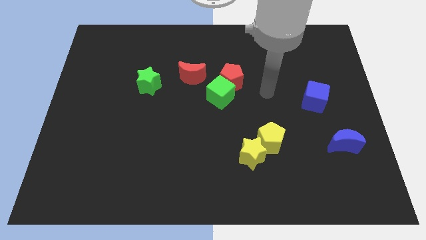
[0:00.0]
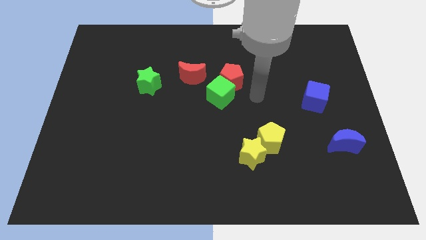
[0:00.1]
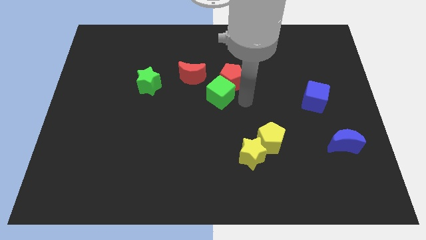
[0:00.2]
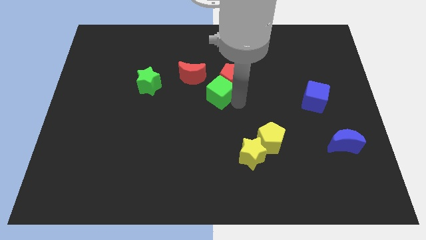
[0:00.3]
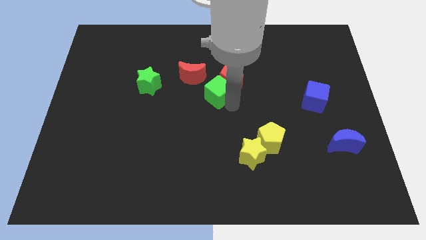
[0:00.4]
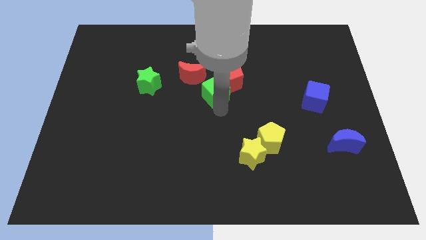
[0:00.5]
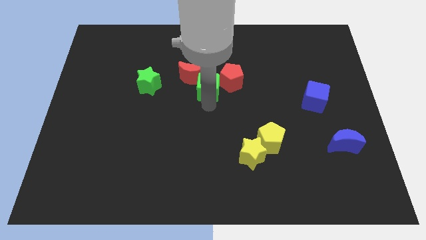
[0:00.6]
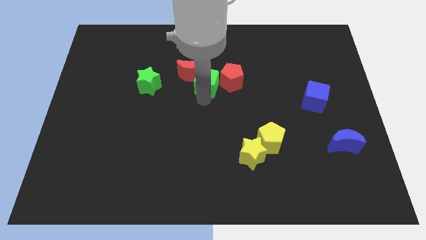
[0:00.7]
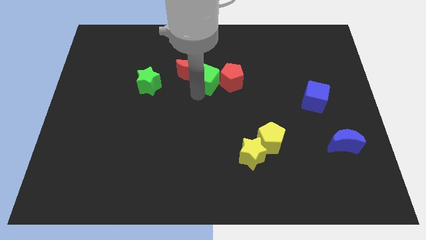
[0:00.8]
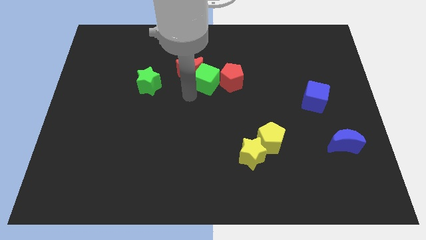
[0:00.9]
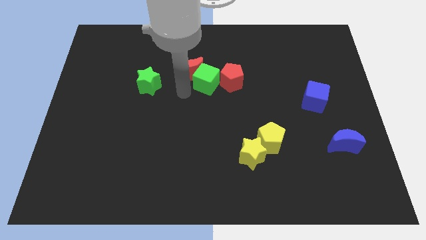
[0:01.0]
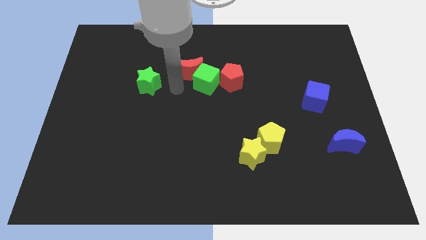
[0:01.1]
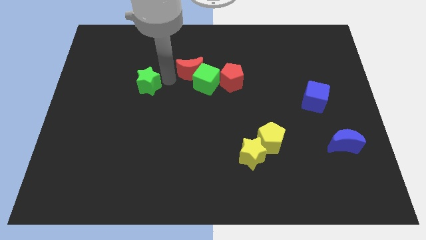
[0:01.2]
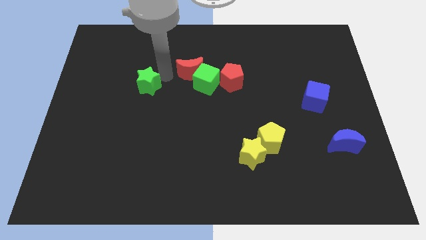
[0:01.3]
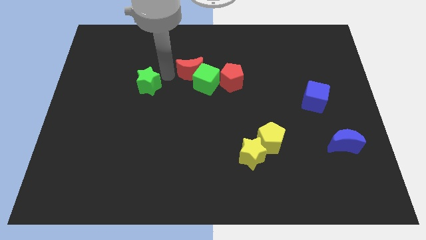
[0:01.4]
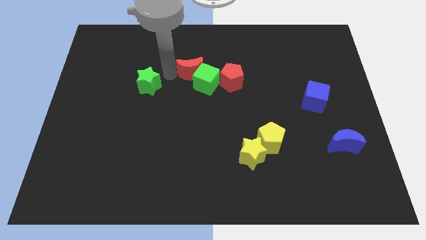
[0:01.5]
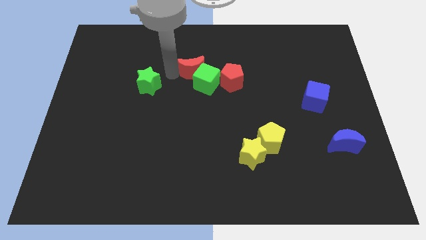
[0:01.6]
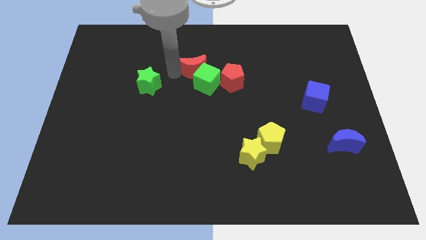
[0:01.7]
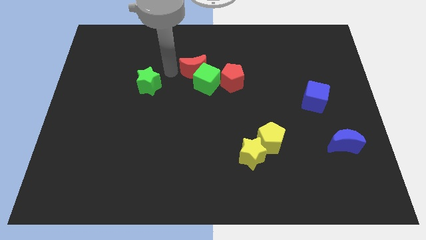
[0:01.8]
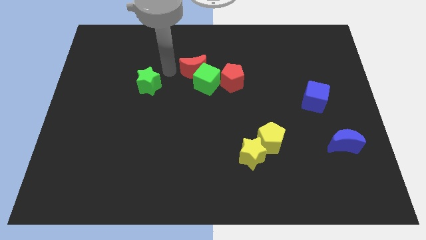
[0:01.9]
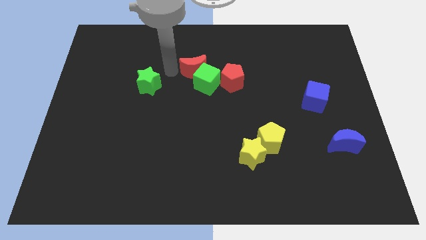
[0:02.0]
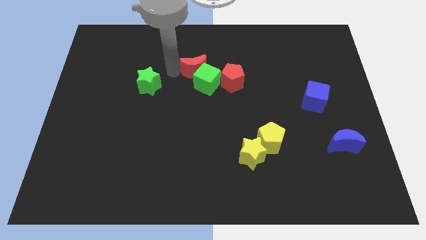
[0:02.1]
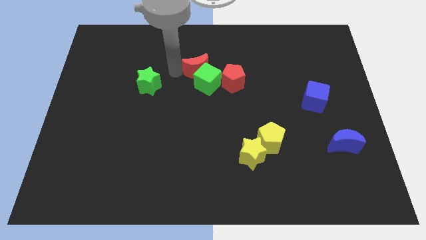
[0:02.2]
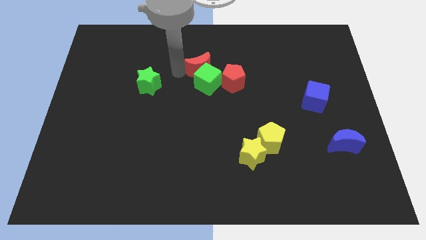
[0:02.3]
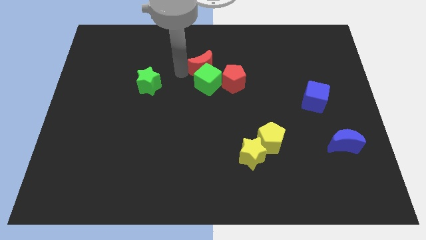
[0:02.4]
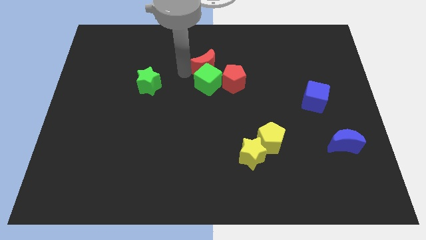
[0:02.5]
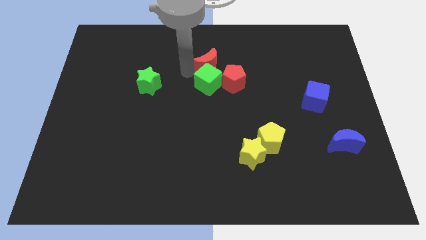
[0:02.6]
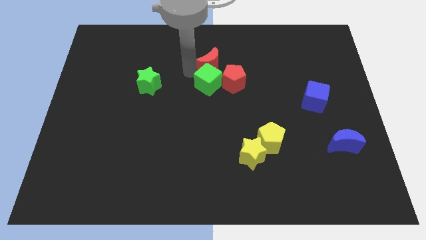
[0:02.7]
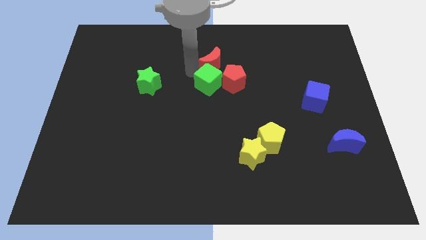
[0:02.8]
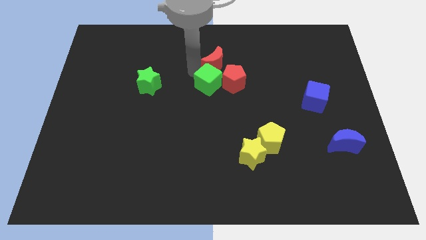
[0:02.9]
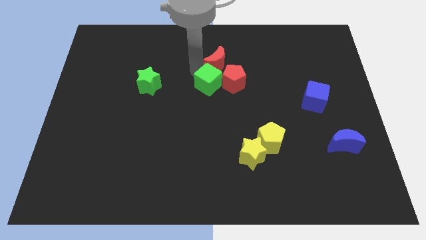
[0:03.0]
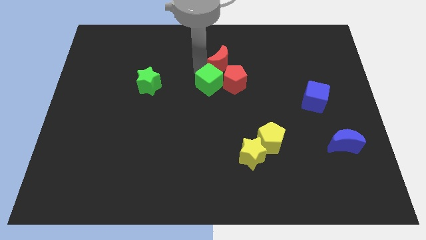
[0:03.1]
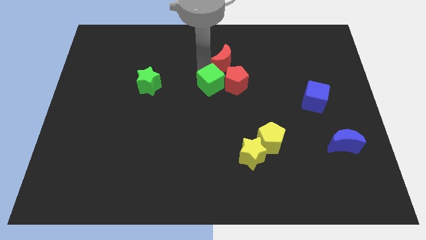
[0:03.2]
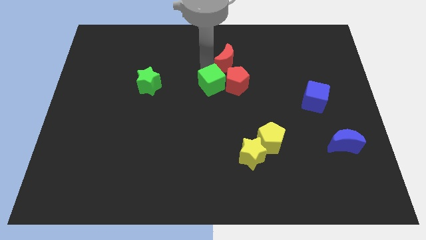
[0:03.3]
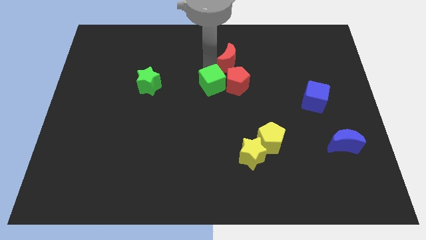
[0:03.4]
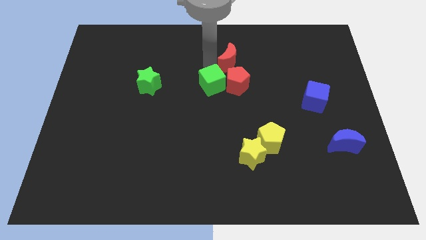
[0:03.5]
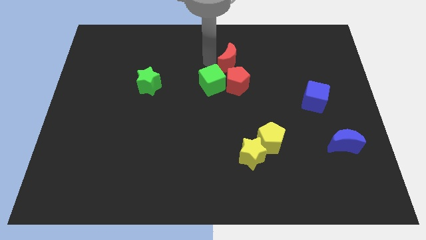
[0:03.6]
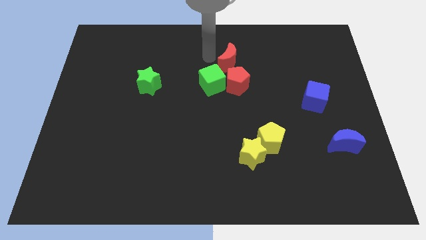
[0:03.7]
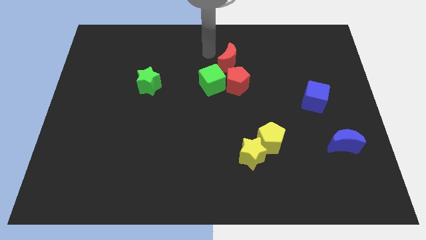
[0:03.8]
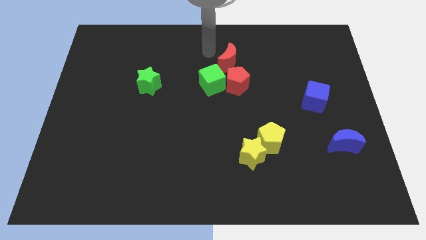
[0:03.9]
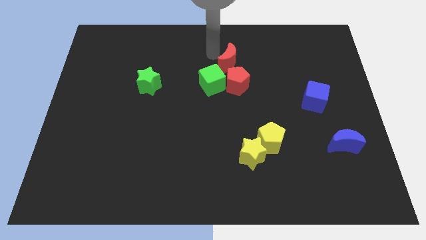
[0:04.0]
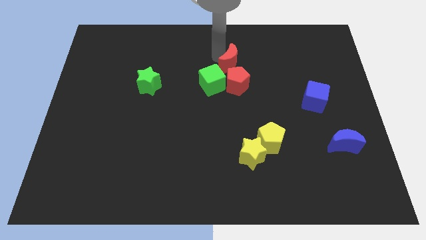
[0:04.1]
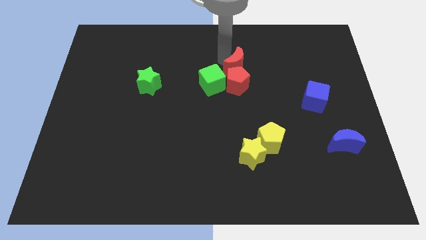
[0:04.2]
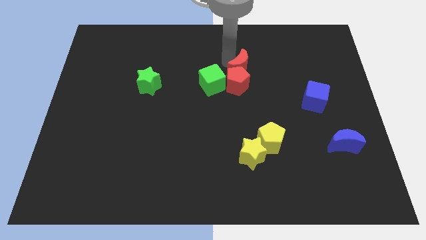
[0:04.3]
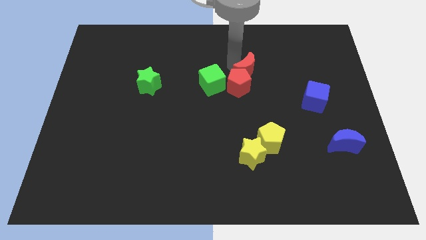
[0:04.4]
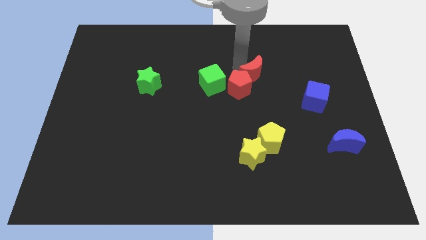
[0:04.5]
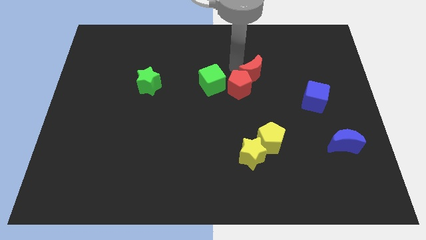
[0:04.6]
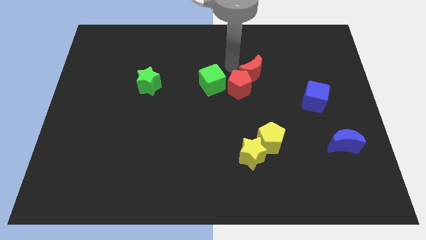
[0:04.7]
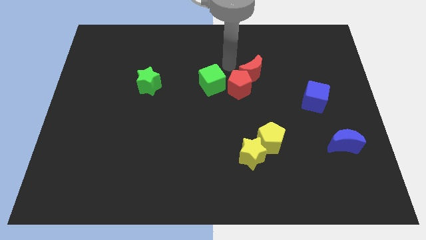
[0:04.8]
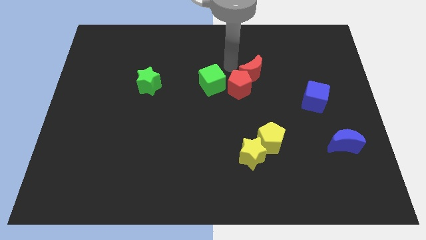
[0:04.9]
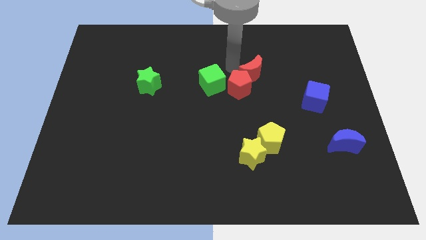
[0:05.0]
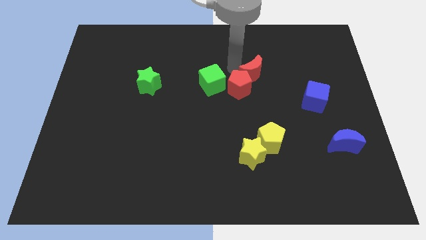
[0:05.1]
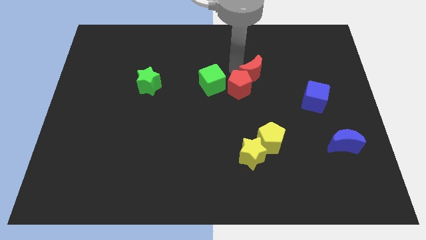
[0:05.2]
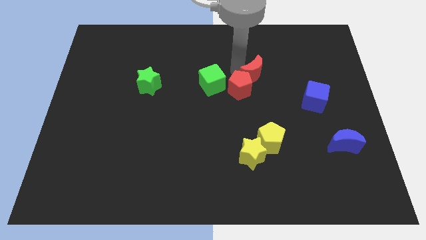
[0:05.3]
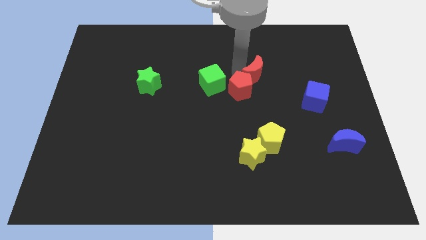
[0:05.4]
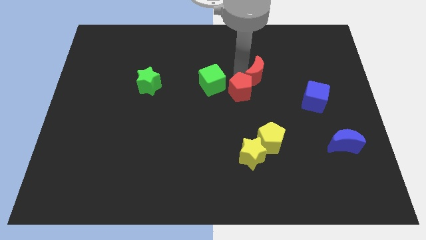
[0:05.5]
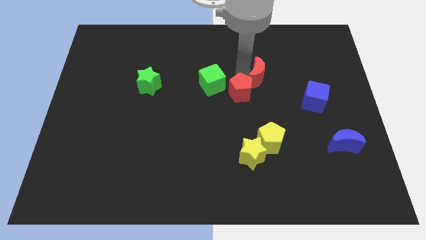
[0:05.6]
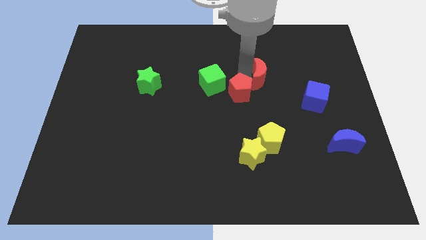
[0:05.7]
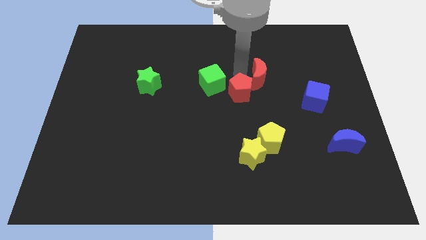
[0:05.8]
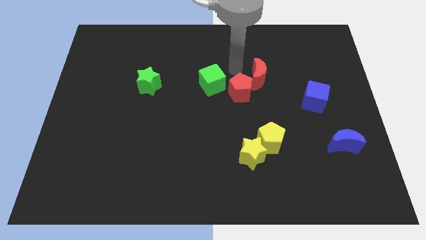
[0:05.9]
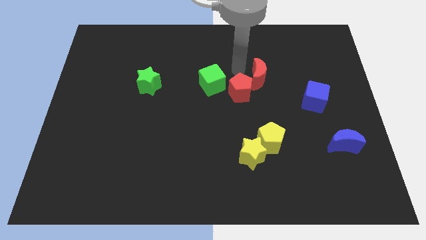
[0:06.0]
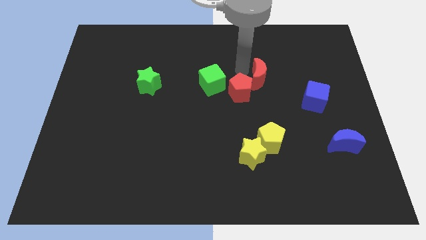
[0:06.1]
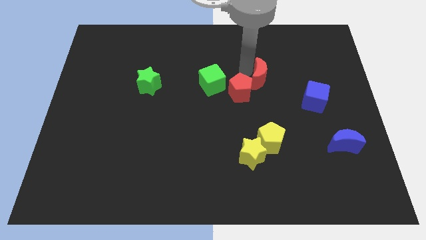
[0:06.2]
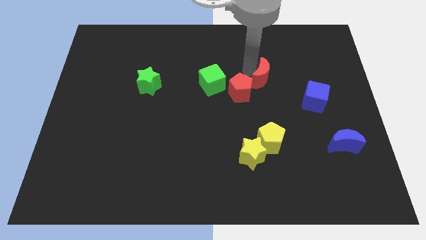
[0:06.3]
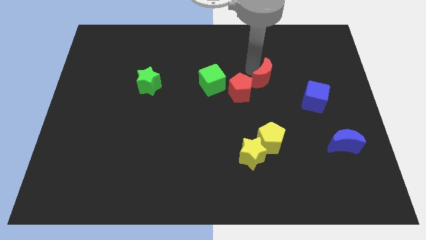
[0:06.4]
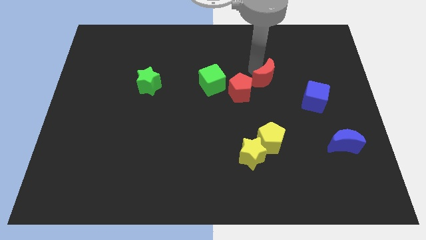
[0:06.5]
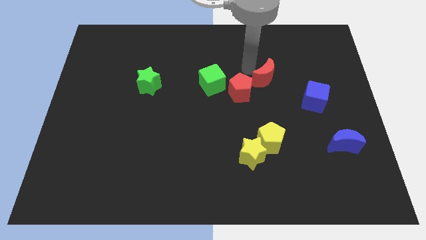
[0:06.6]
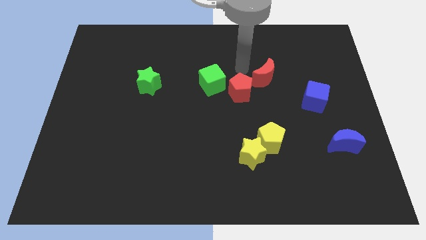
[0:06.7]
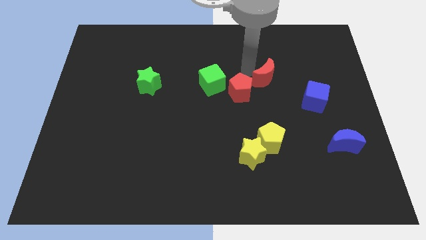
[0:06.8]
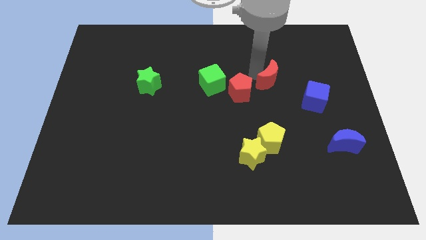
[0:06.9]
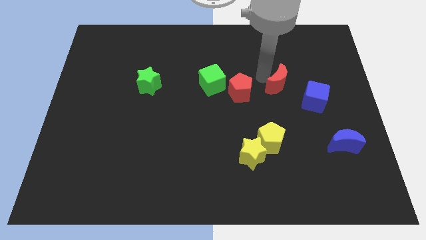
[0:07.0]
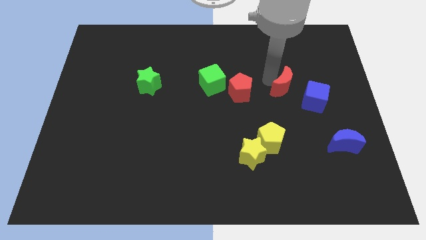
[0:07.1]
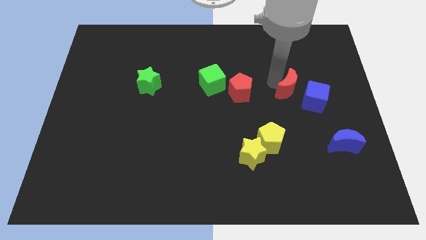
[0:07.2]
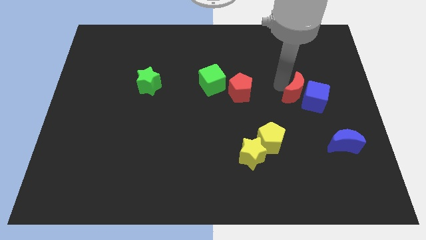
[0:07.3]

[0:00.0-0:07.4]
slide the red moon to the blue cube

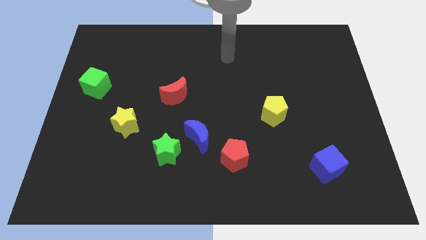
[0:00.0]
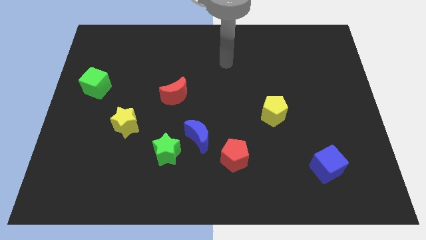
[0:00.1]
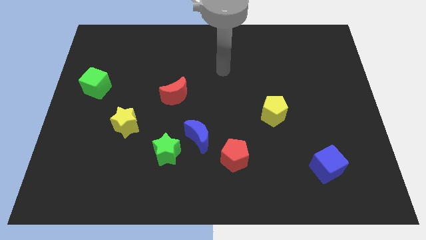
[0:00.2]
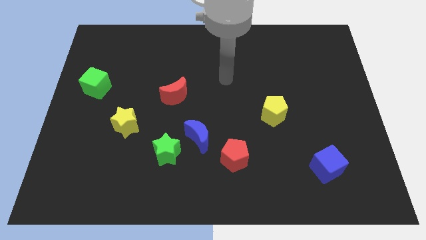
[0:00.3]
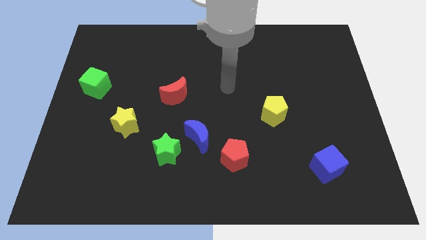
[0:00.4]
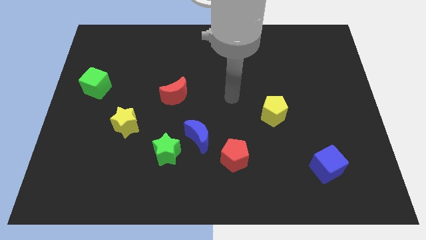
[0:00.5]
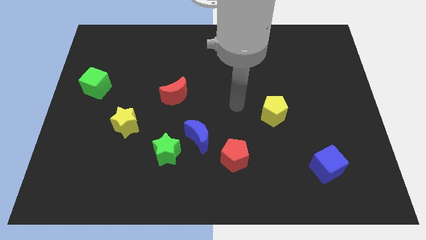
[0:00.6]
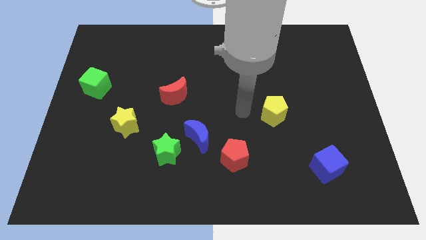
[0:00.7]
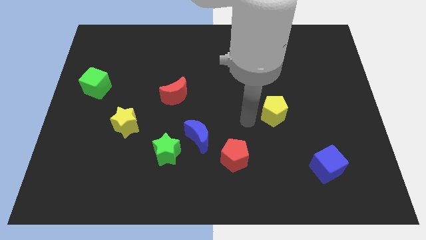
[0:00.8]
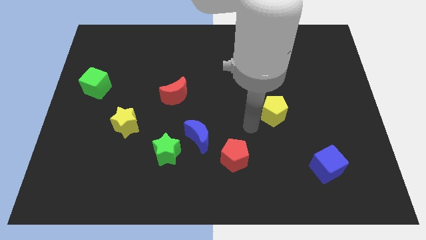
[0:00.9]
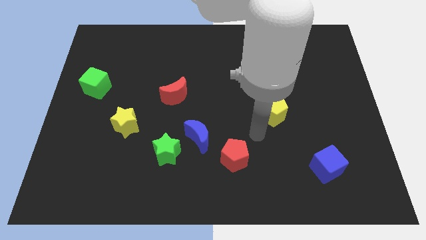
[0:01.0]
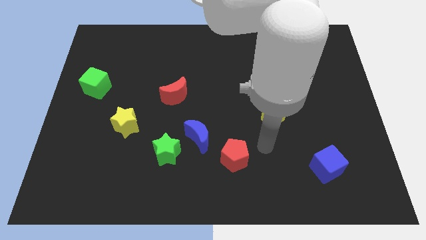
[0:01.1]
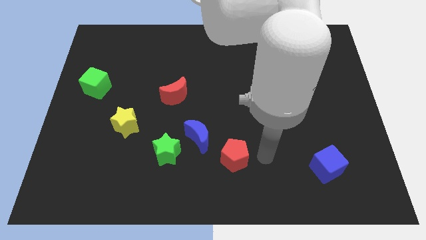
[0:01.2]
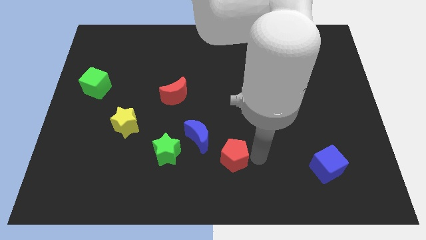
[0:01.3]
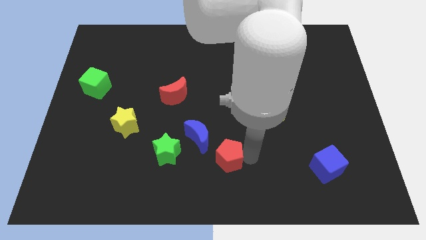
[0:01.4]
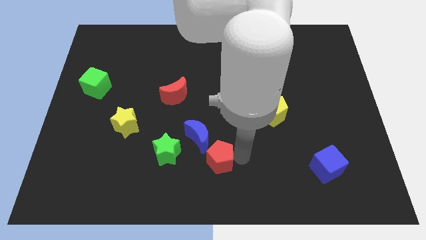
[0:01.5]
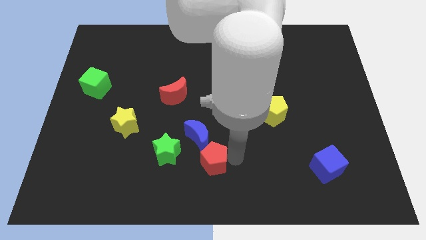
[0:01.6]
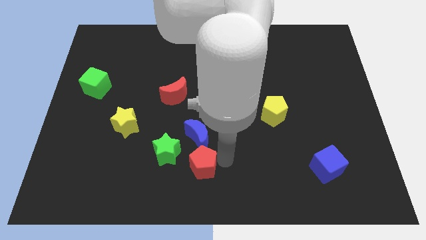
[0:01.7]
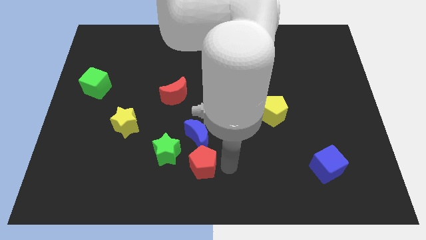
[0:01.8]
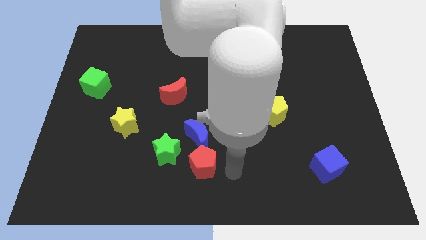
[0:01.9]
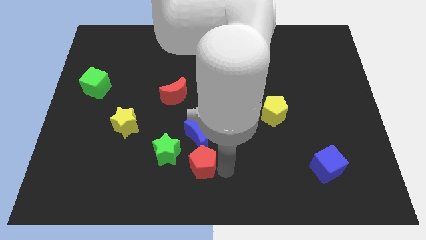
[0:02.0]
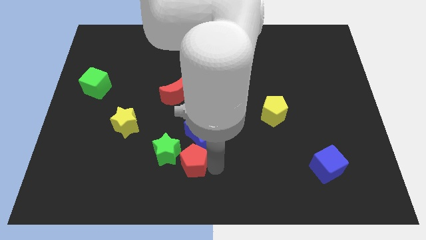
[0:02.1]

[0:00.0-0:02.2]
push the red pentagon close to the green star
